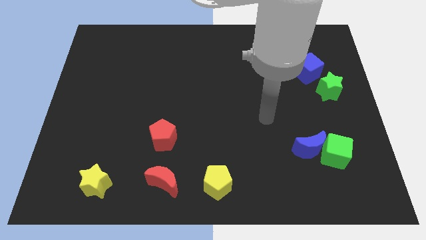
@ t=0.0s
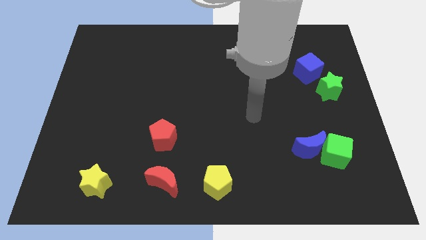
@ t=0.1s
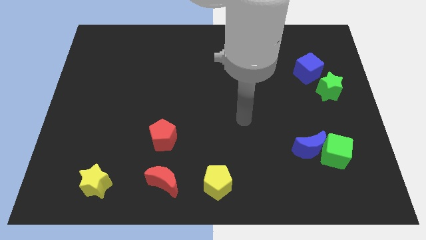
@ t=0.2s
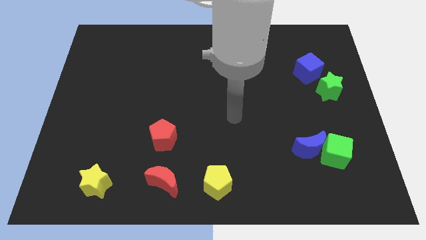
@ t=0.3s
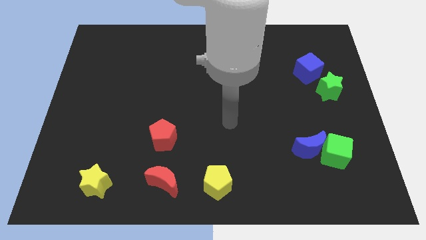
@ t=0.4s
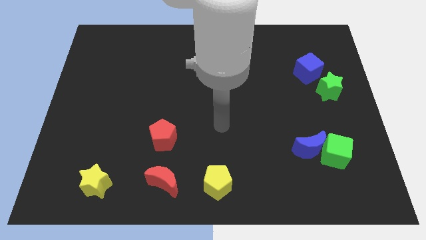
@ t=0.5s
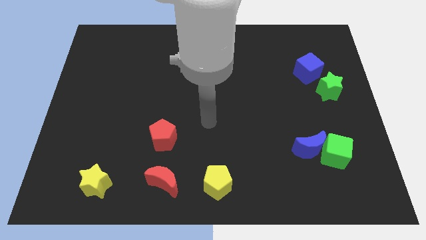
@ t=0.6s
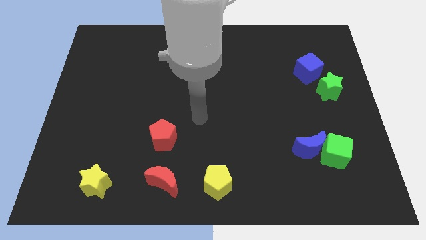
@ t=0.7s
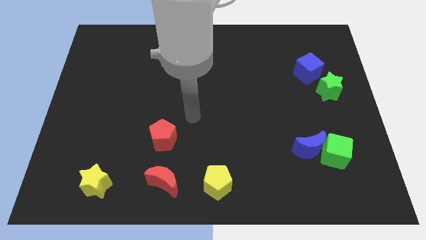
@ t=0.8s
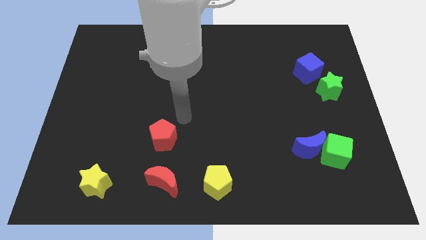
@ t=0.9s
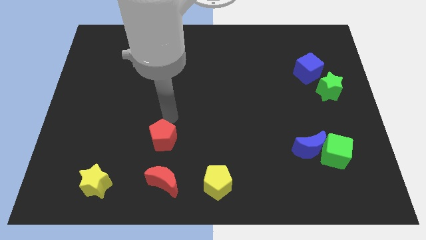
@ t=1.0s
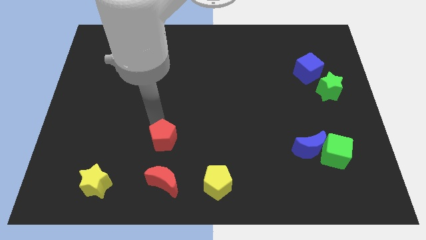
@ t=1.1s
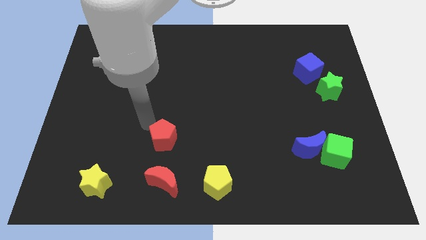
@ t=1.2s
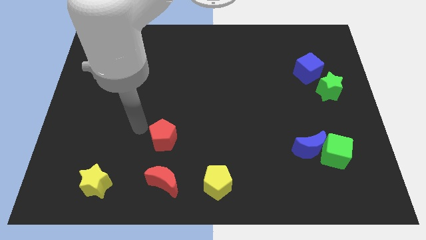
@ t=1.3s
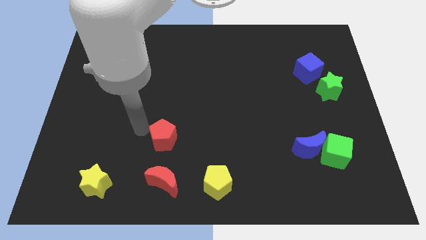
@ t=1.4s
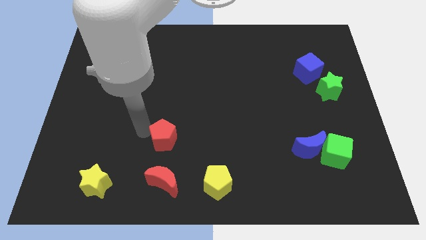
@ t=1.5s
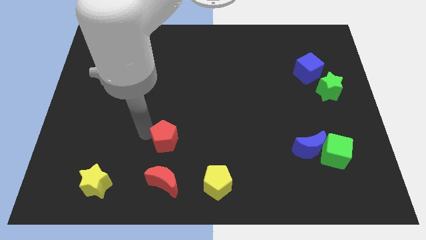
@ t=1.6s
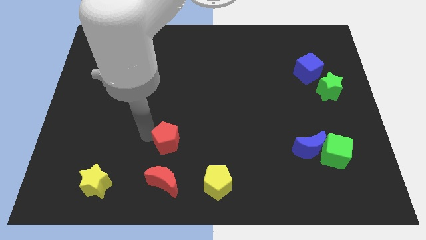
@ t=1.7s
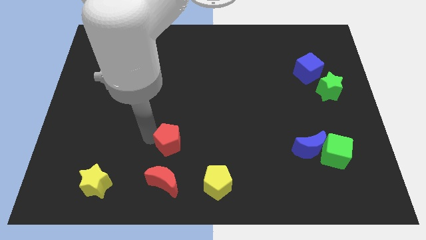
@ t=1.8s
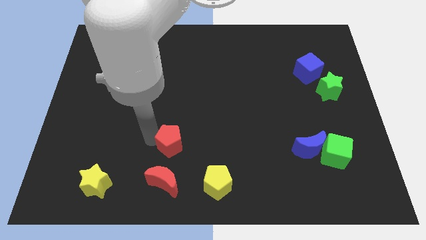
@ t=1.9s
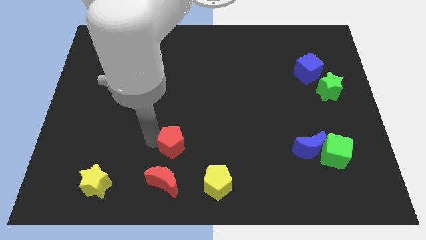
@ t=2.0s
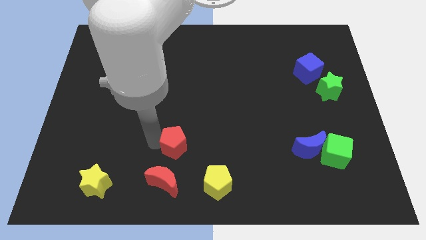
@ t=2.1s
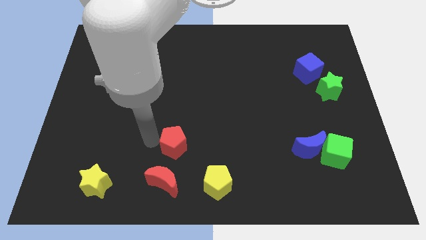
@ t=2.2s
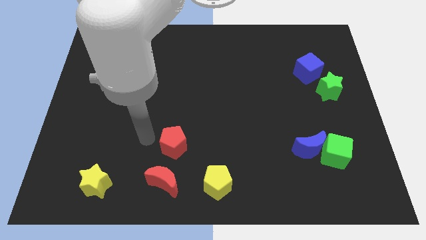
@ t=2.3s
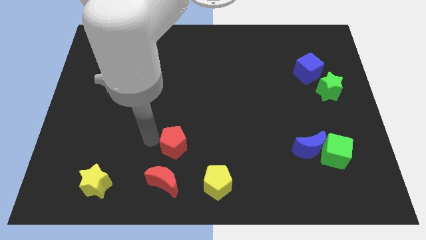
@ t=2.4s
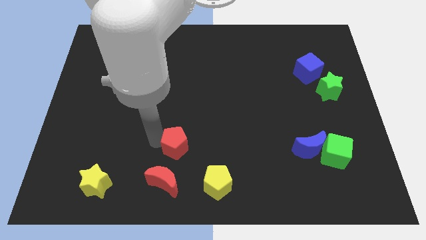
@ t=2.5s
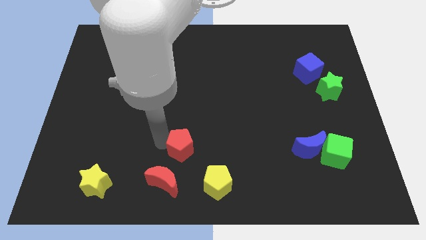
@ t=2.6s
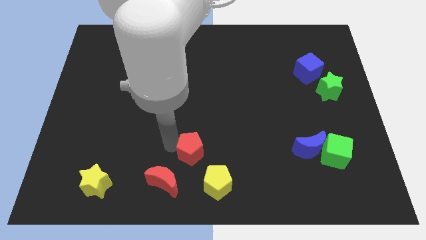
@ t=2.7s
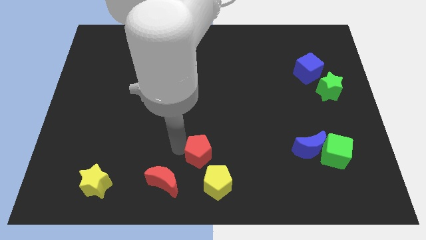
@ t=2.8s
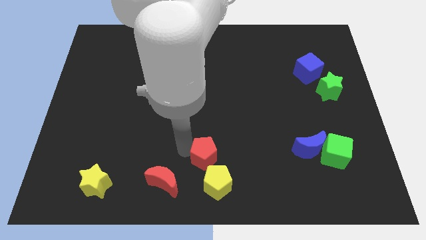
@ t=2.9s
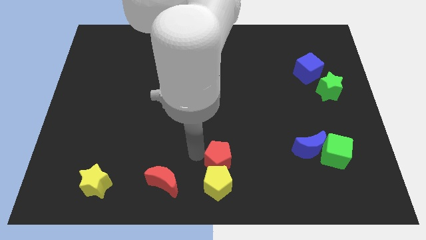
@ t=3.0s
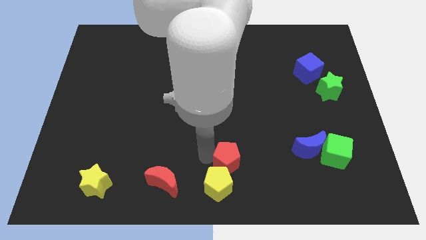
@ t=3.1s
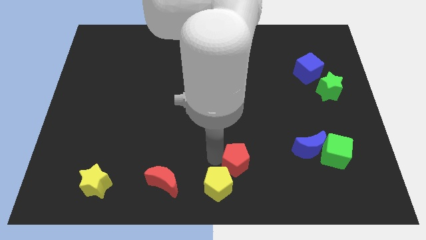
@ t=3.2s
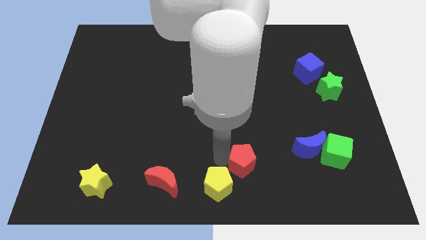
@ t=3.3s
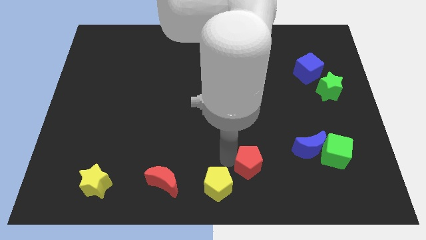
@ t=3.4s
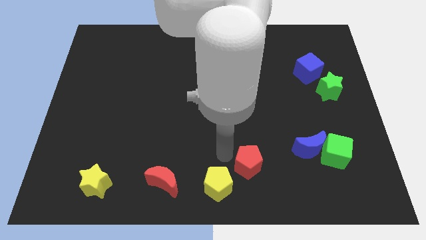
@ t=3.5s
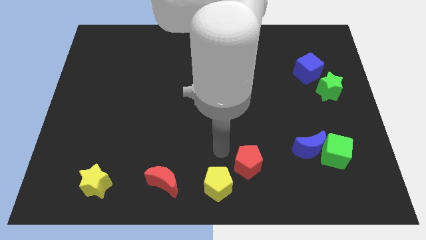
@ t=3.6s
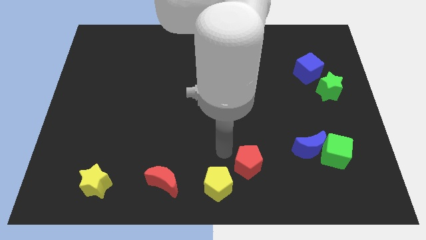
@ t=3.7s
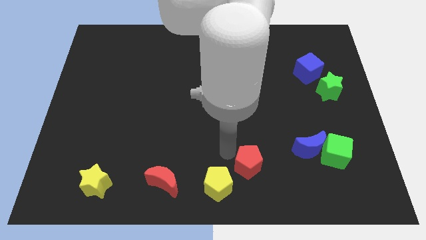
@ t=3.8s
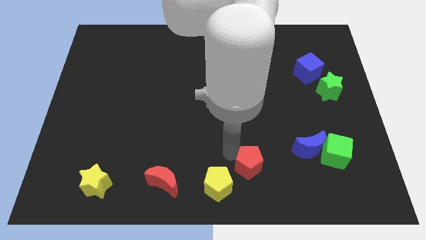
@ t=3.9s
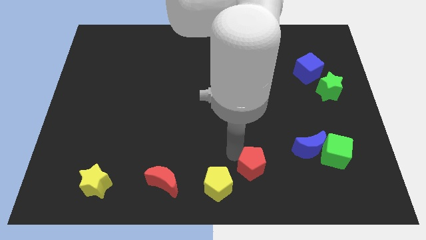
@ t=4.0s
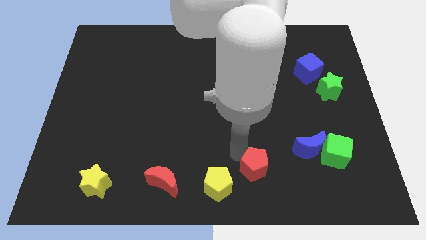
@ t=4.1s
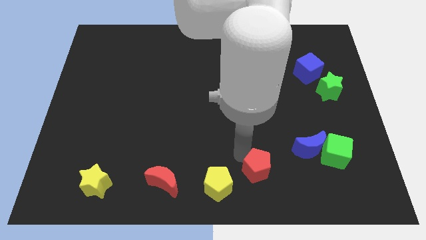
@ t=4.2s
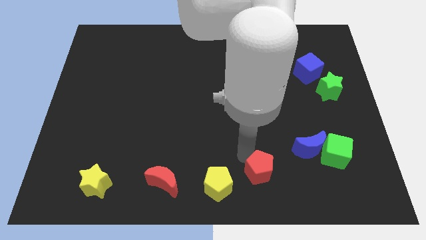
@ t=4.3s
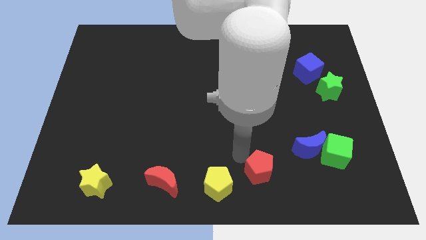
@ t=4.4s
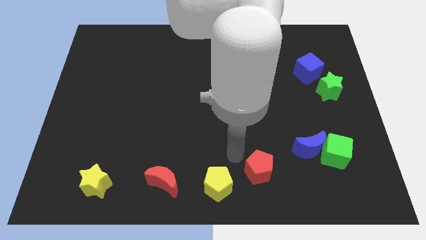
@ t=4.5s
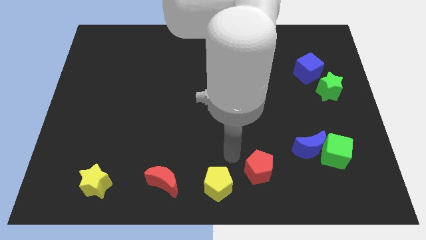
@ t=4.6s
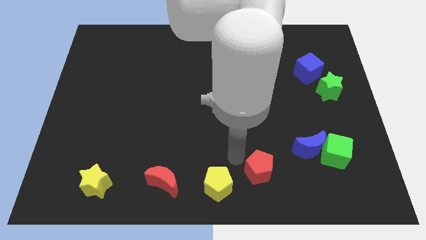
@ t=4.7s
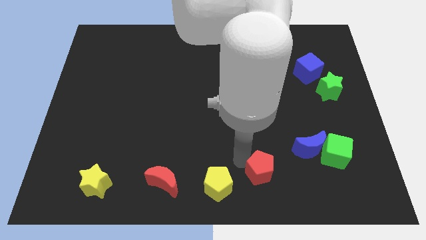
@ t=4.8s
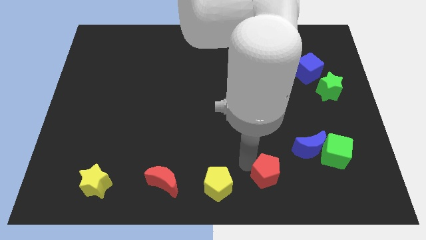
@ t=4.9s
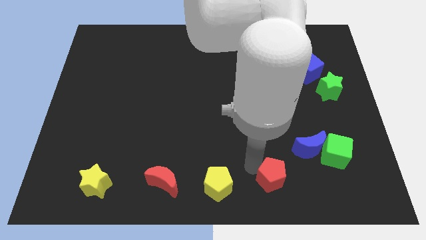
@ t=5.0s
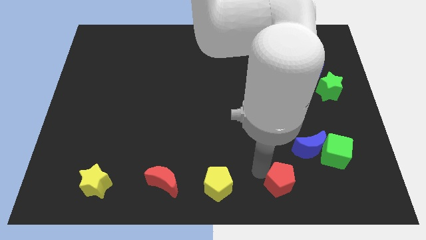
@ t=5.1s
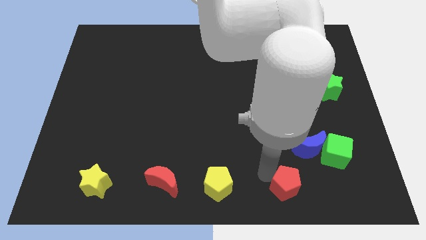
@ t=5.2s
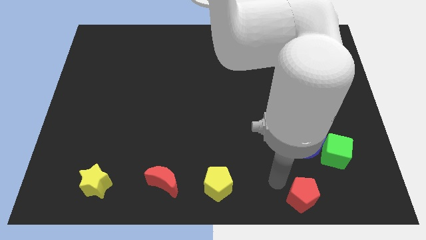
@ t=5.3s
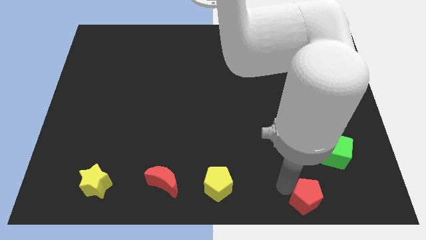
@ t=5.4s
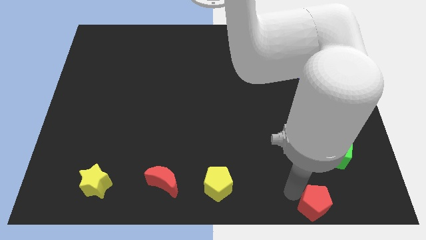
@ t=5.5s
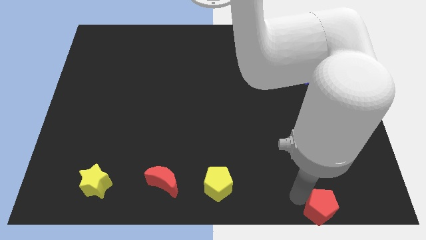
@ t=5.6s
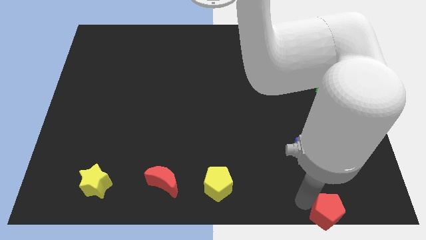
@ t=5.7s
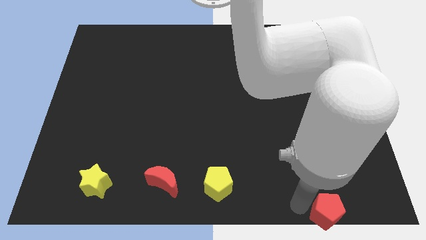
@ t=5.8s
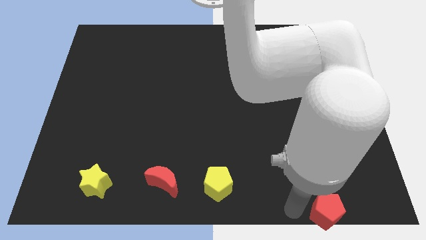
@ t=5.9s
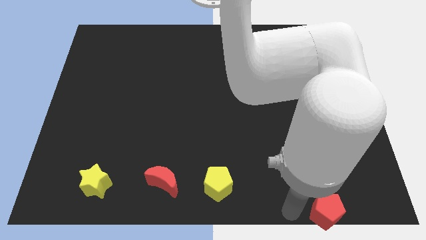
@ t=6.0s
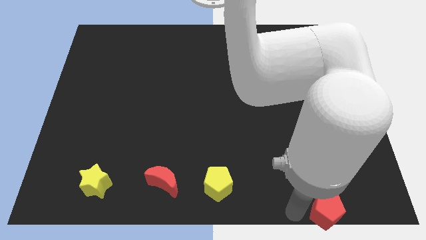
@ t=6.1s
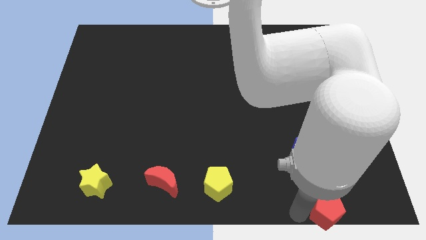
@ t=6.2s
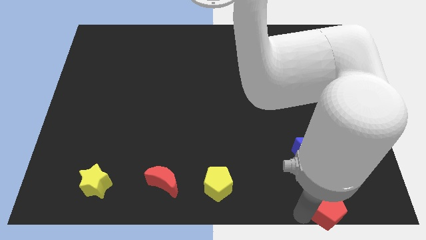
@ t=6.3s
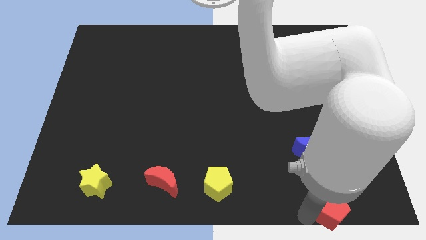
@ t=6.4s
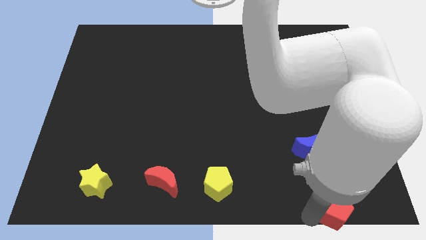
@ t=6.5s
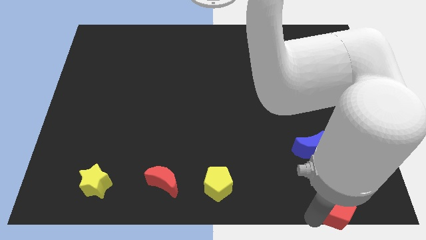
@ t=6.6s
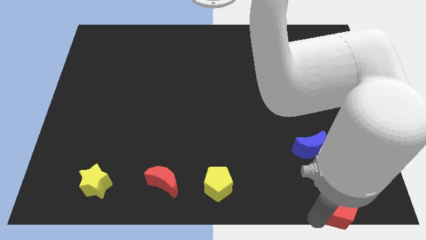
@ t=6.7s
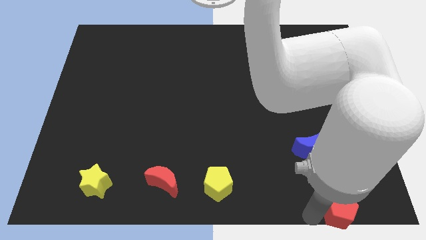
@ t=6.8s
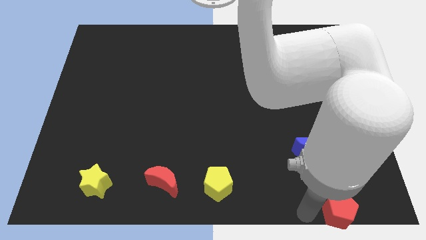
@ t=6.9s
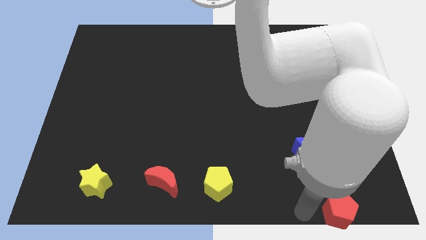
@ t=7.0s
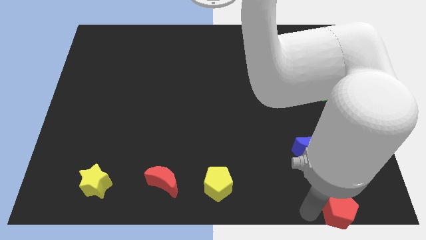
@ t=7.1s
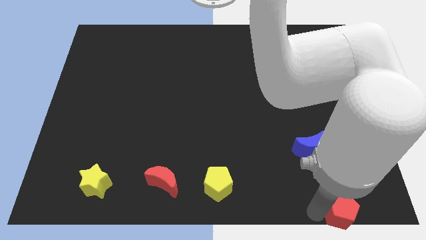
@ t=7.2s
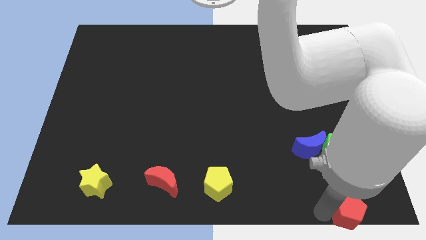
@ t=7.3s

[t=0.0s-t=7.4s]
push the red pentagon to the lower right corner
